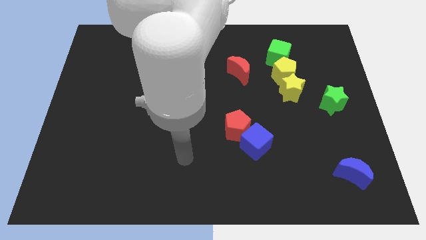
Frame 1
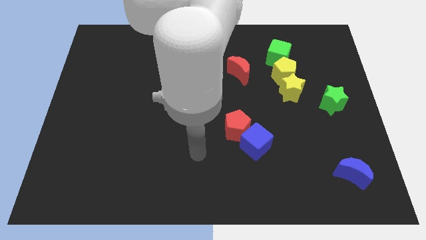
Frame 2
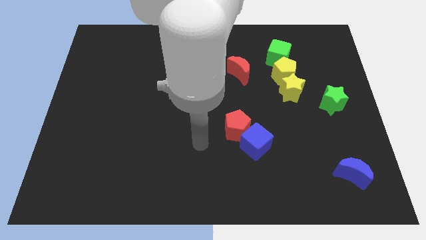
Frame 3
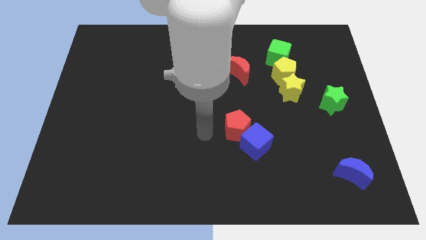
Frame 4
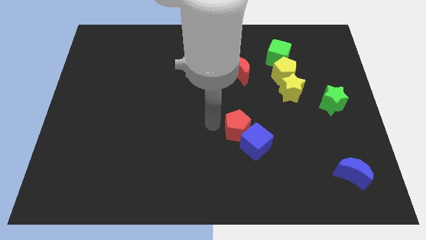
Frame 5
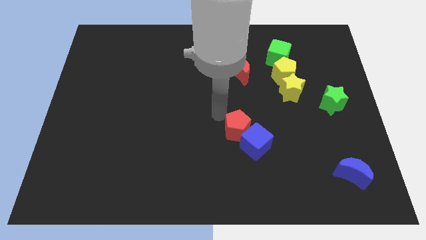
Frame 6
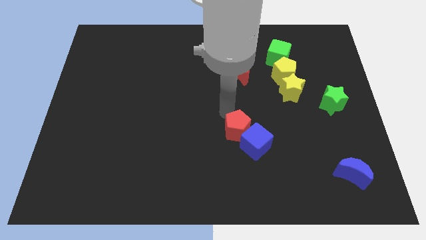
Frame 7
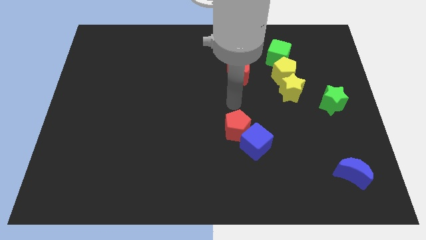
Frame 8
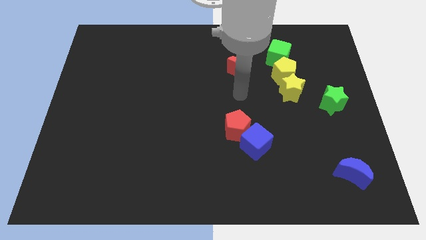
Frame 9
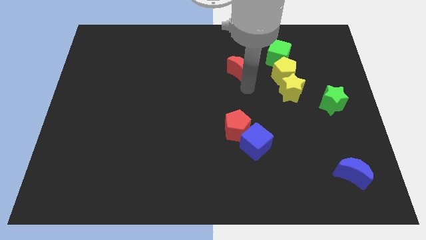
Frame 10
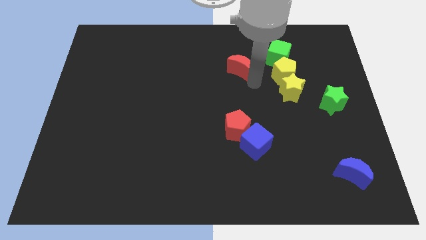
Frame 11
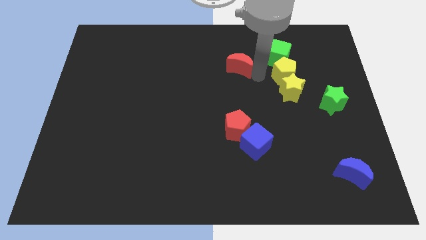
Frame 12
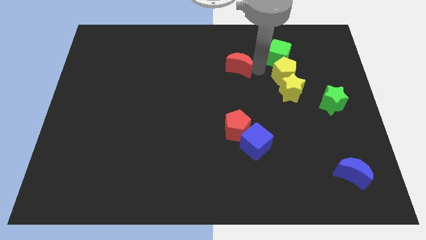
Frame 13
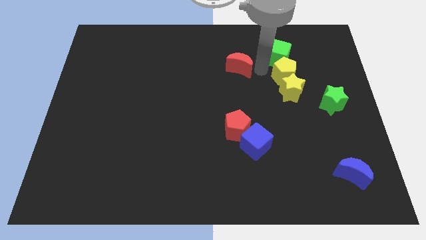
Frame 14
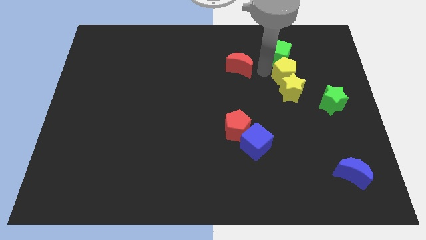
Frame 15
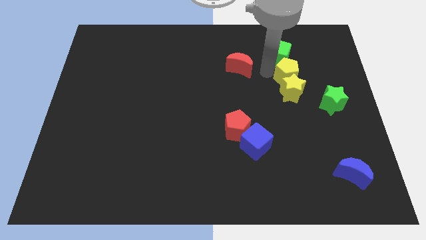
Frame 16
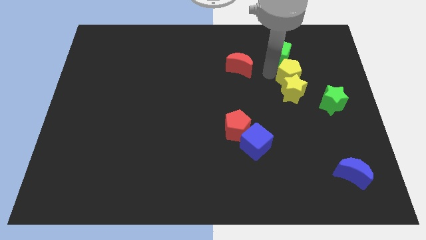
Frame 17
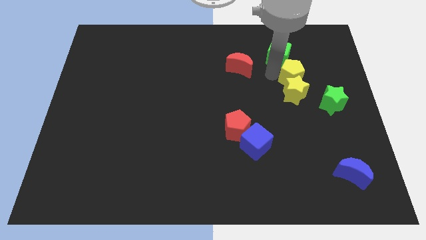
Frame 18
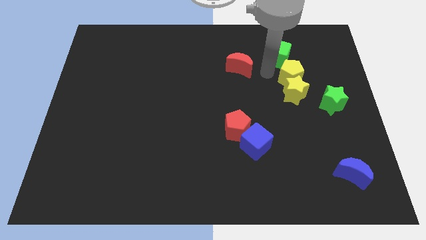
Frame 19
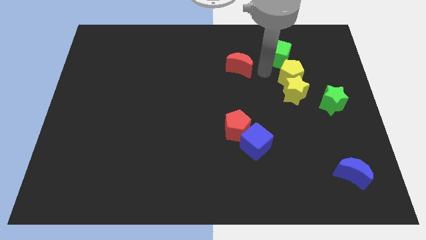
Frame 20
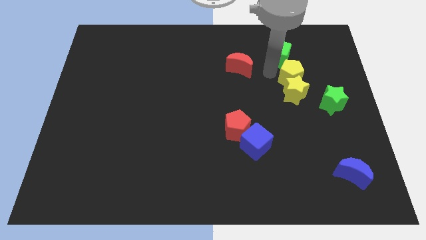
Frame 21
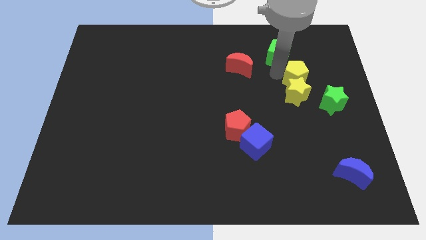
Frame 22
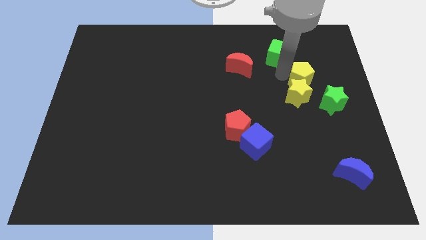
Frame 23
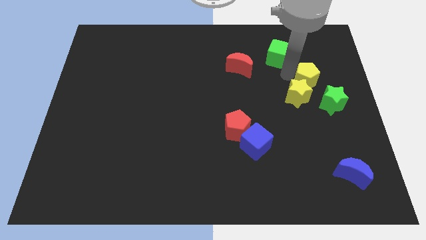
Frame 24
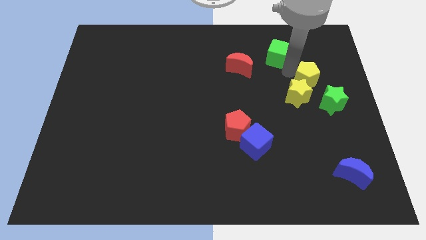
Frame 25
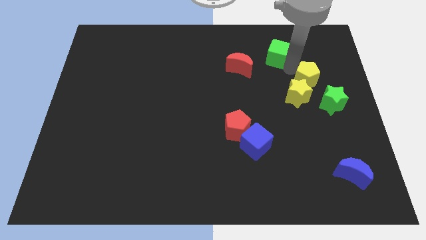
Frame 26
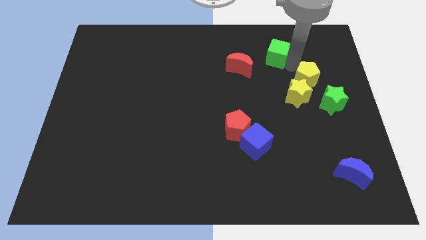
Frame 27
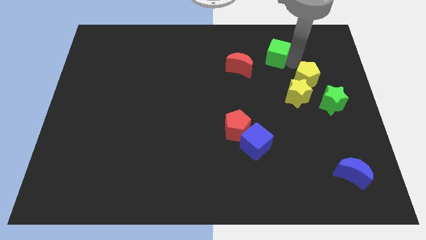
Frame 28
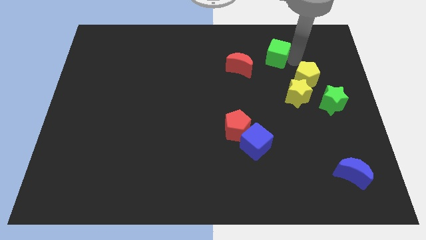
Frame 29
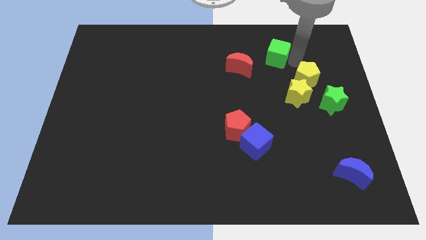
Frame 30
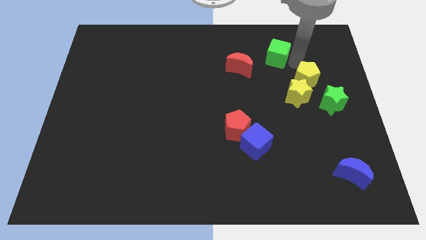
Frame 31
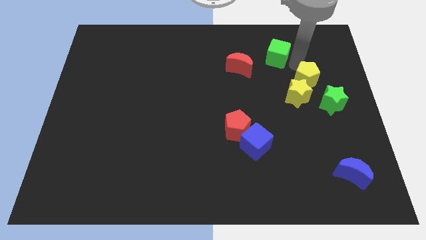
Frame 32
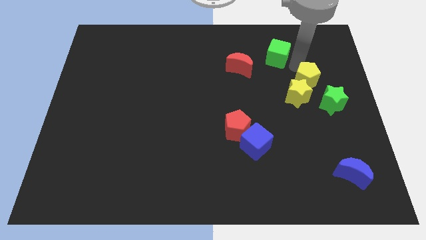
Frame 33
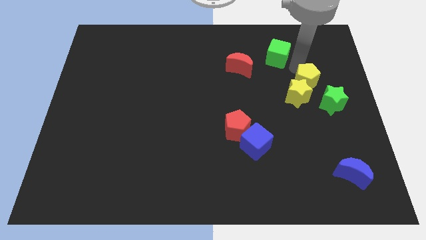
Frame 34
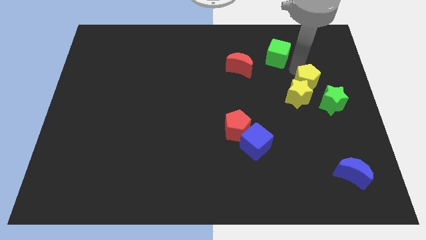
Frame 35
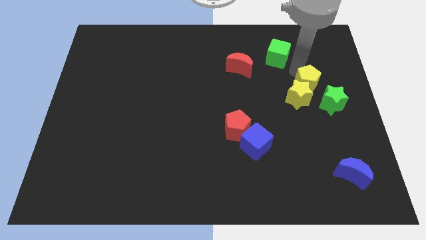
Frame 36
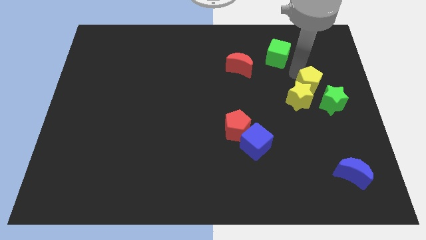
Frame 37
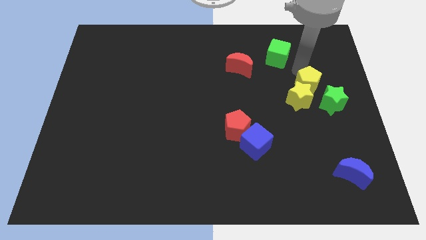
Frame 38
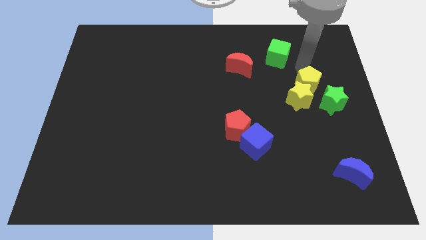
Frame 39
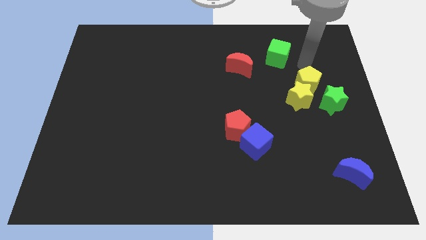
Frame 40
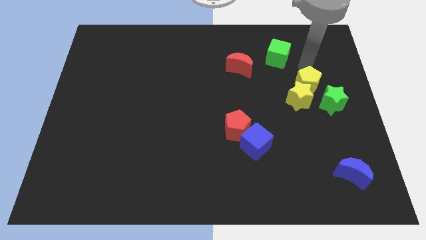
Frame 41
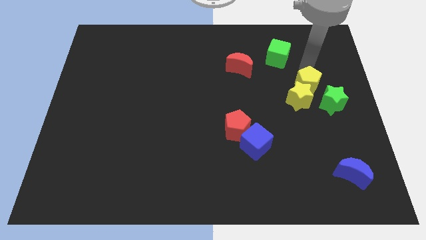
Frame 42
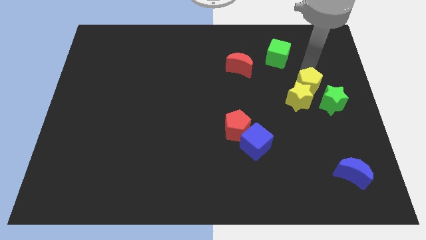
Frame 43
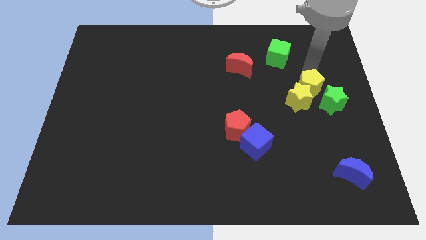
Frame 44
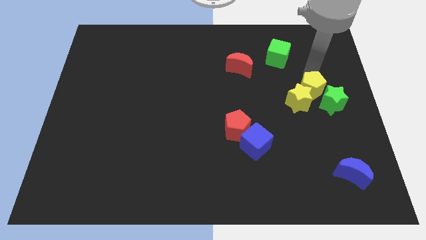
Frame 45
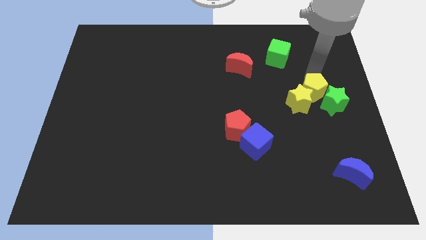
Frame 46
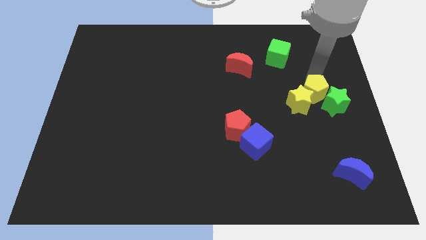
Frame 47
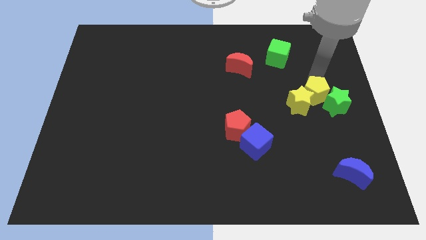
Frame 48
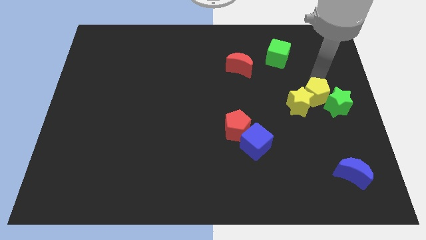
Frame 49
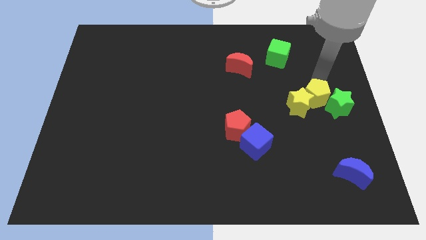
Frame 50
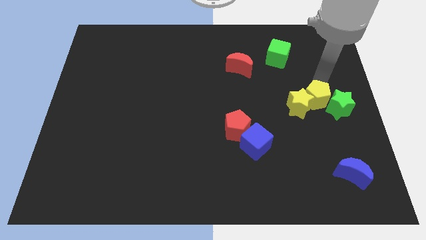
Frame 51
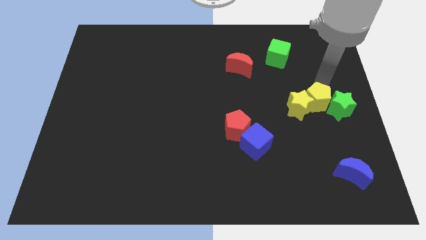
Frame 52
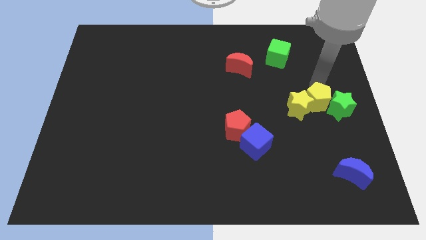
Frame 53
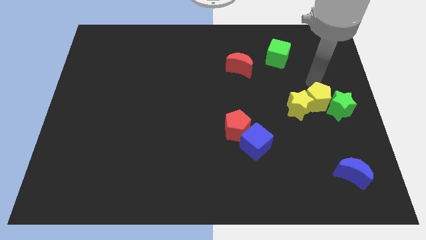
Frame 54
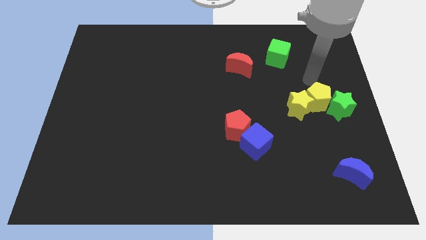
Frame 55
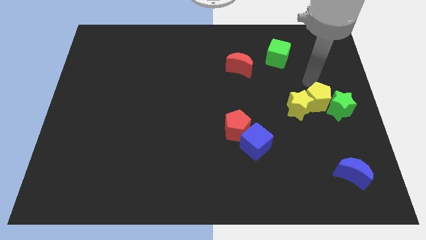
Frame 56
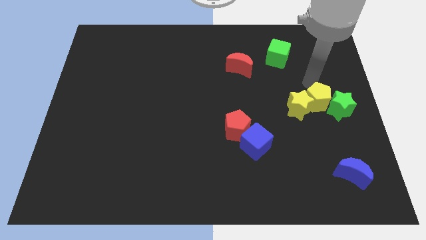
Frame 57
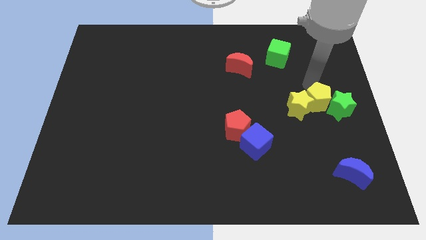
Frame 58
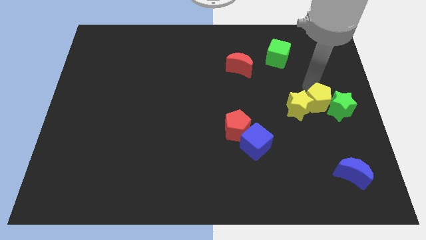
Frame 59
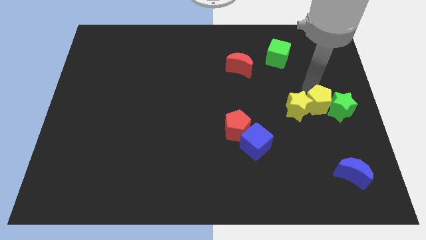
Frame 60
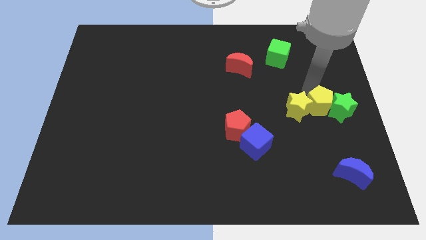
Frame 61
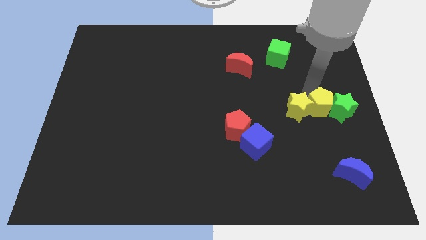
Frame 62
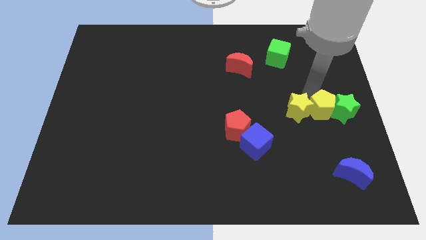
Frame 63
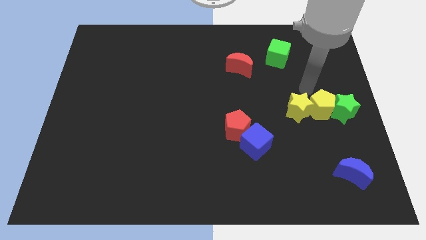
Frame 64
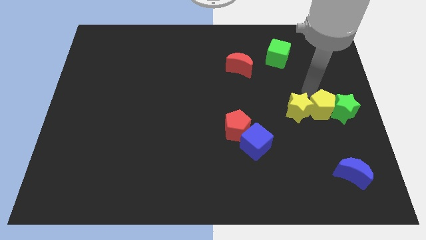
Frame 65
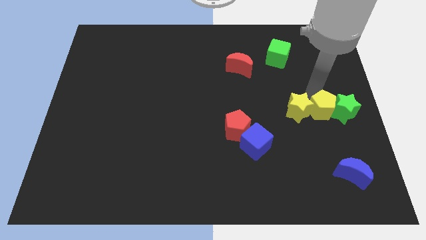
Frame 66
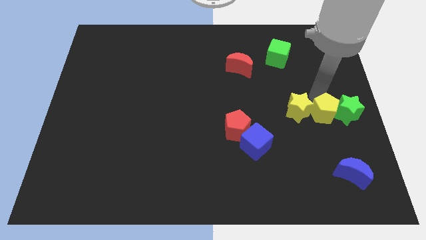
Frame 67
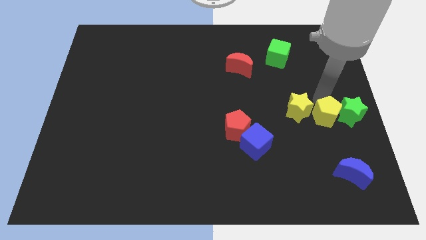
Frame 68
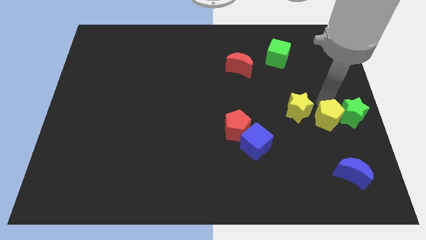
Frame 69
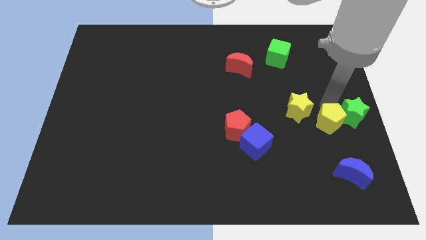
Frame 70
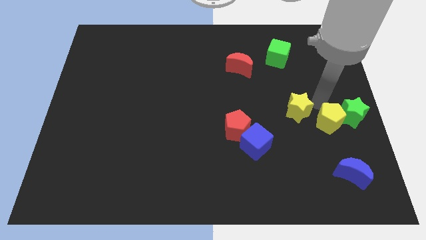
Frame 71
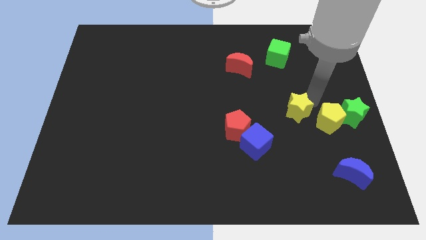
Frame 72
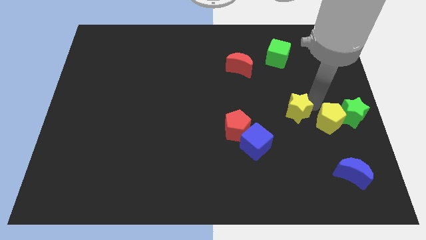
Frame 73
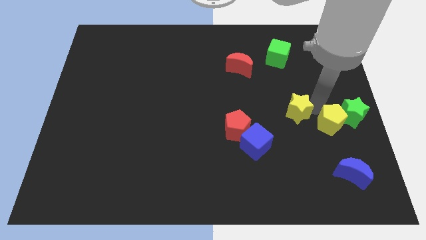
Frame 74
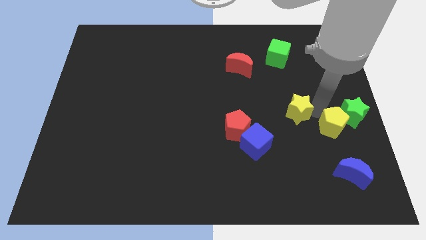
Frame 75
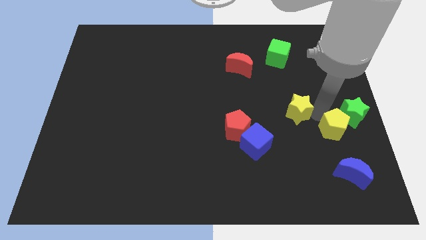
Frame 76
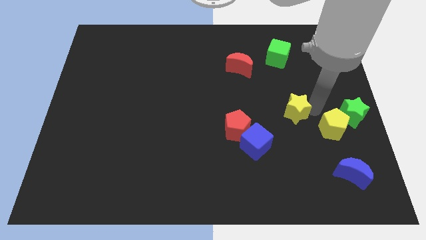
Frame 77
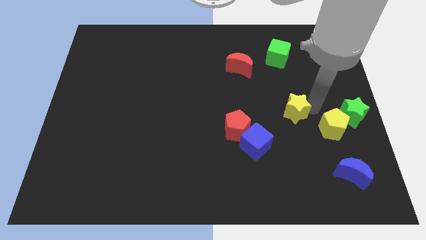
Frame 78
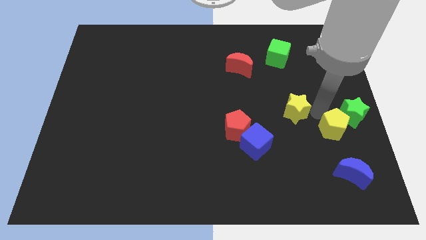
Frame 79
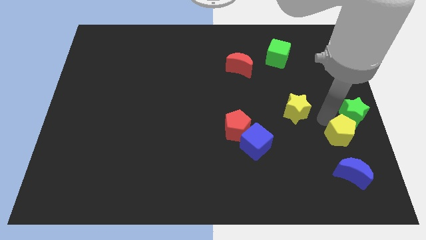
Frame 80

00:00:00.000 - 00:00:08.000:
put the yellow pentagon to the bottom of the green star
